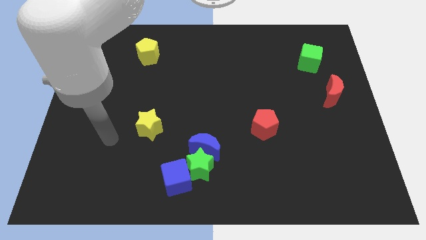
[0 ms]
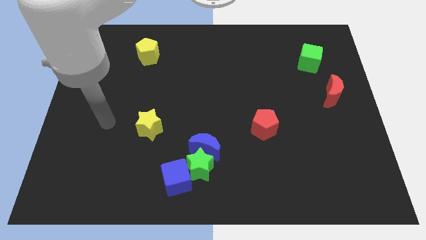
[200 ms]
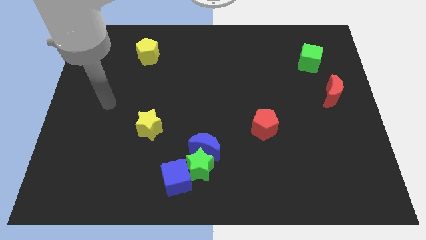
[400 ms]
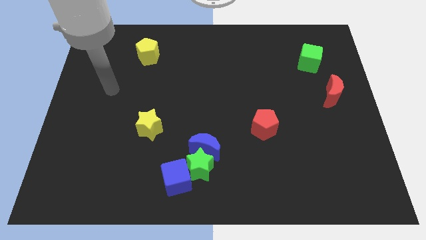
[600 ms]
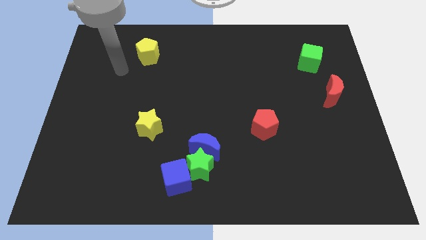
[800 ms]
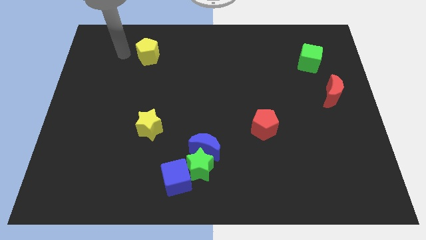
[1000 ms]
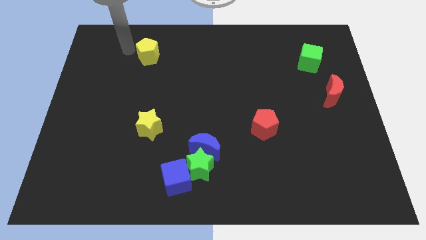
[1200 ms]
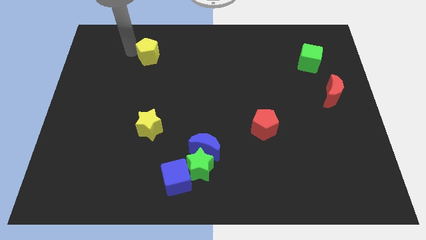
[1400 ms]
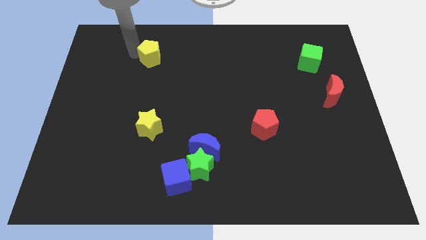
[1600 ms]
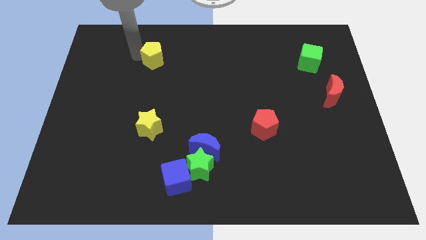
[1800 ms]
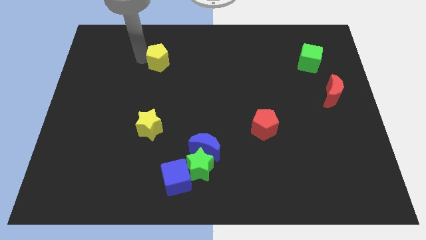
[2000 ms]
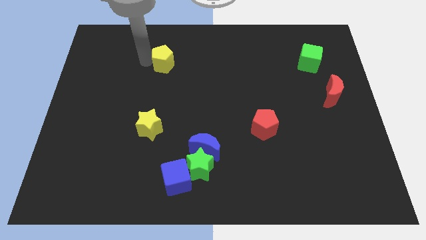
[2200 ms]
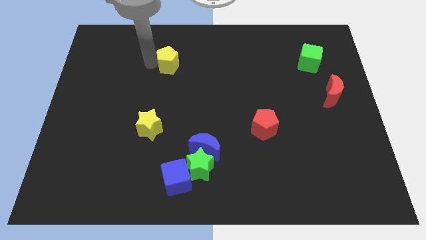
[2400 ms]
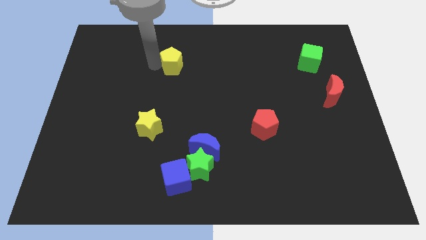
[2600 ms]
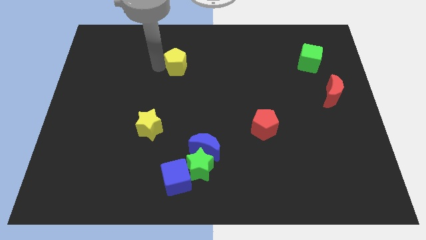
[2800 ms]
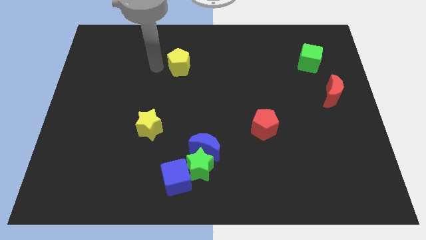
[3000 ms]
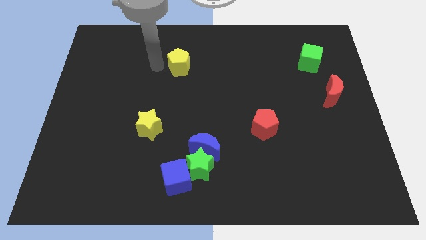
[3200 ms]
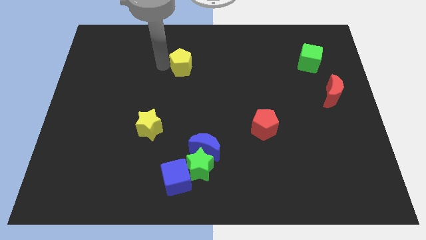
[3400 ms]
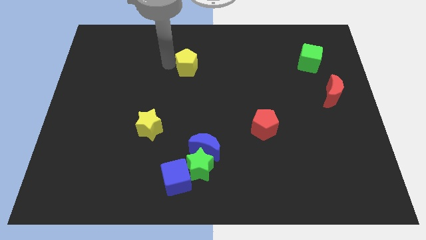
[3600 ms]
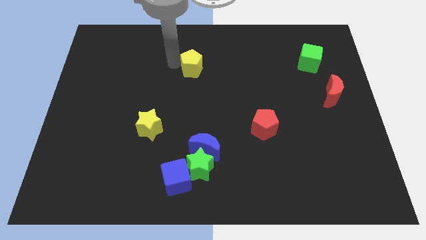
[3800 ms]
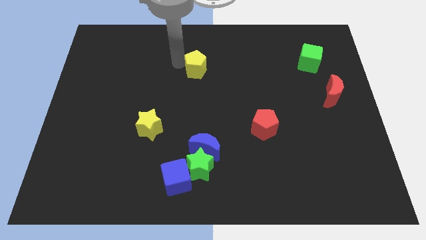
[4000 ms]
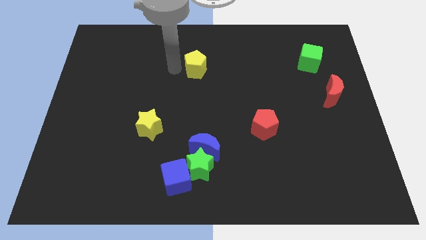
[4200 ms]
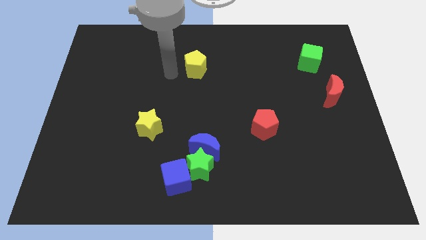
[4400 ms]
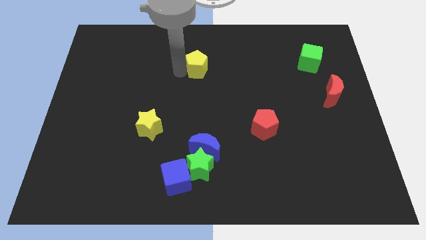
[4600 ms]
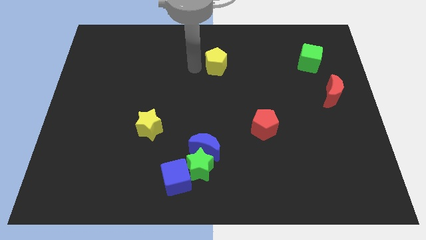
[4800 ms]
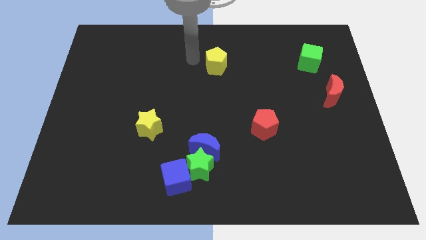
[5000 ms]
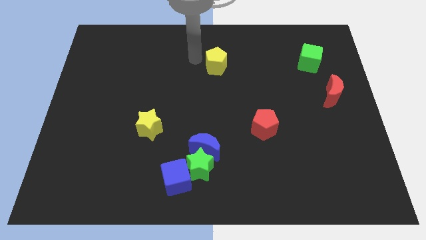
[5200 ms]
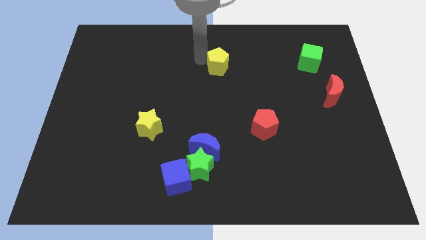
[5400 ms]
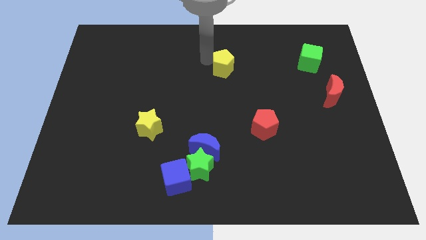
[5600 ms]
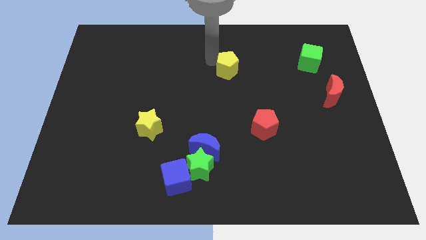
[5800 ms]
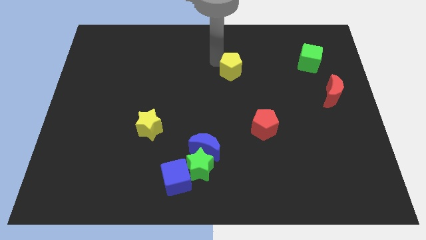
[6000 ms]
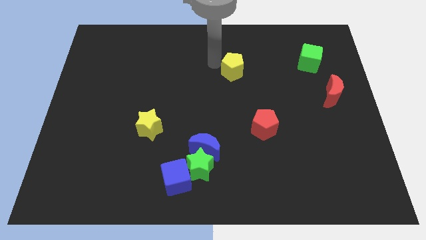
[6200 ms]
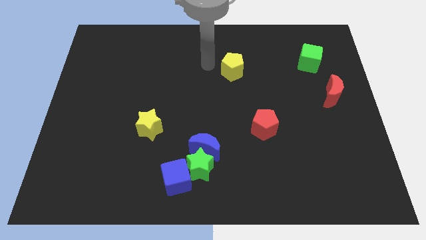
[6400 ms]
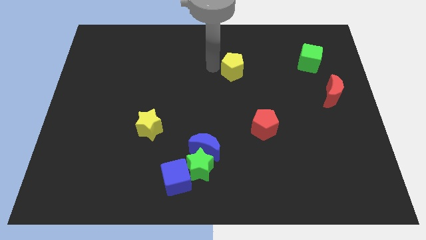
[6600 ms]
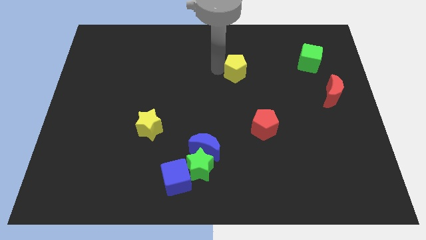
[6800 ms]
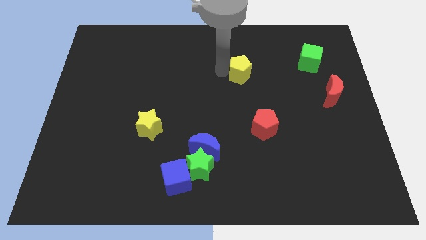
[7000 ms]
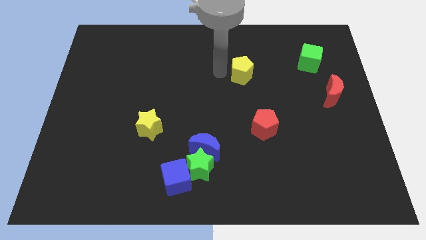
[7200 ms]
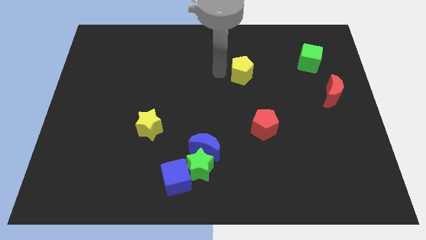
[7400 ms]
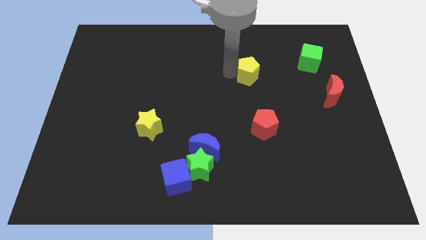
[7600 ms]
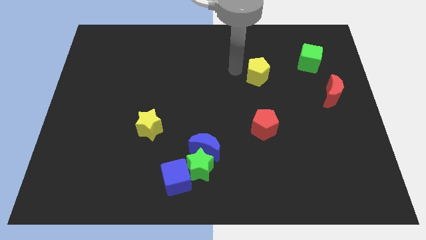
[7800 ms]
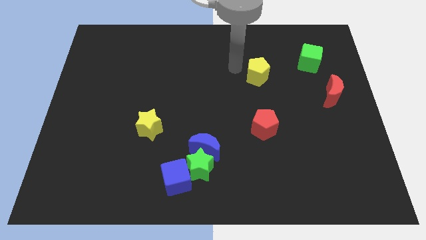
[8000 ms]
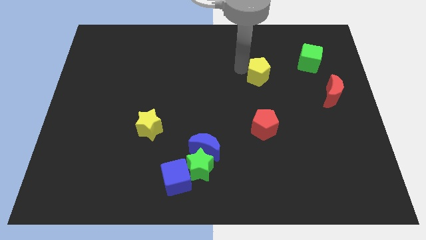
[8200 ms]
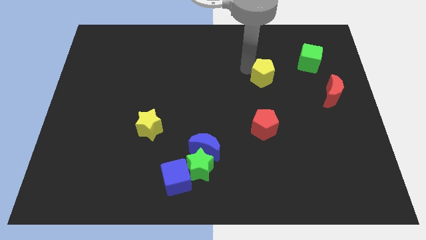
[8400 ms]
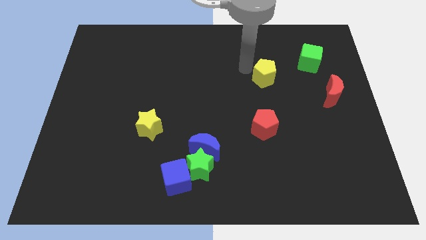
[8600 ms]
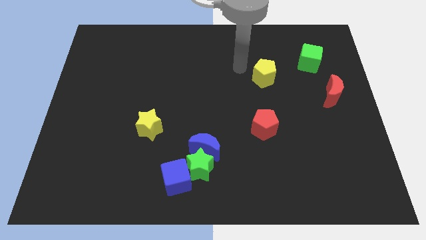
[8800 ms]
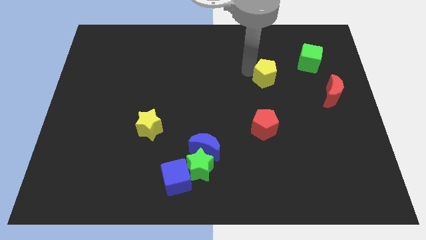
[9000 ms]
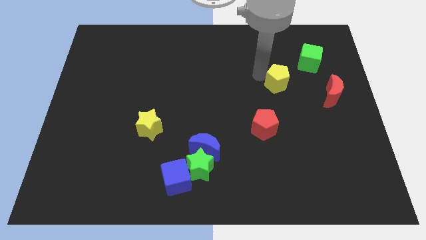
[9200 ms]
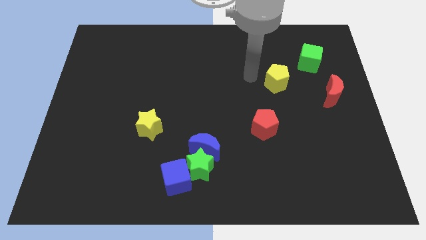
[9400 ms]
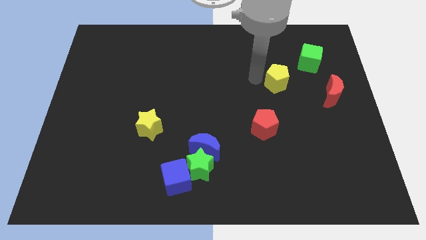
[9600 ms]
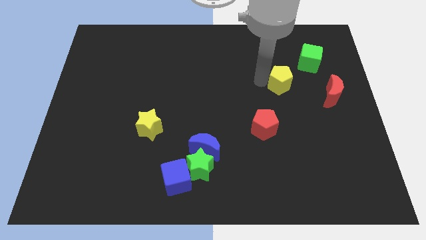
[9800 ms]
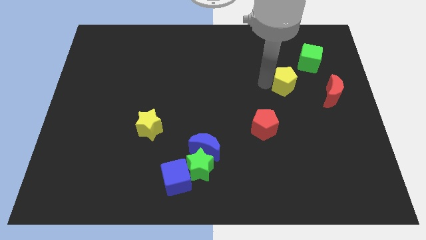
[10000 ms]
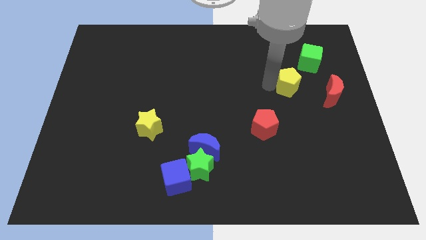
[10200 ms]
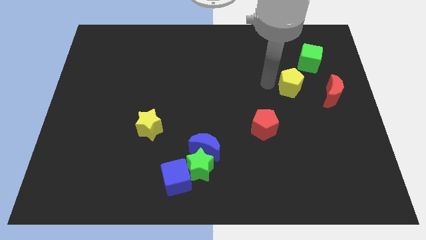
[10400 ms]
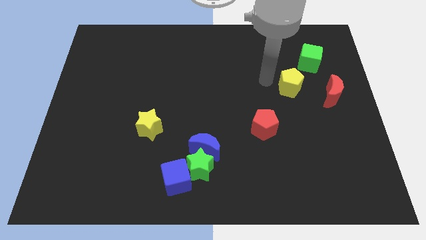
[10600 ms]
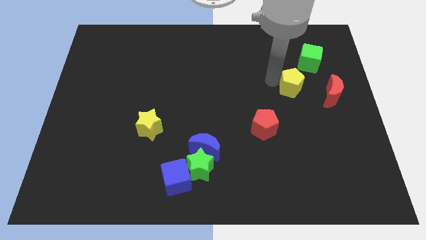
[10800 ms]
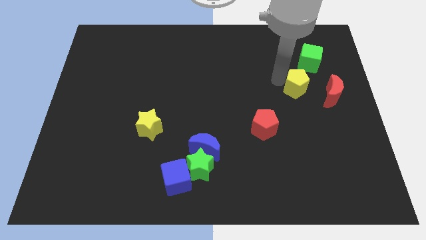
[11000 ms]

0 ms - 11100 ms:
move the yellow pentagon to the bottom side of the green cube
